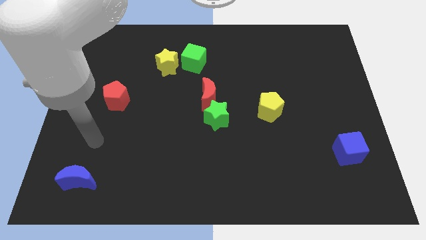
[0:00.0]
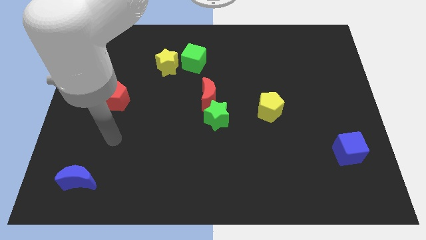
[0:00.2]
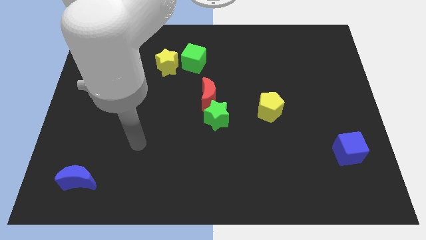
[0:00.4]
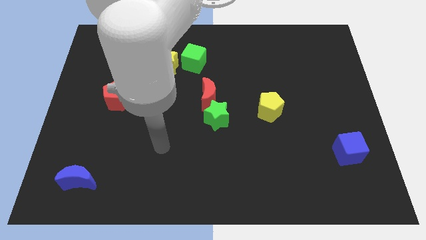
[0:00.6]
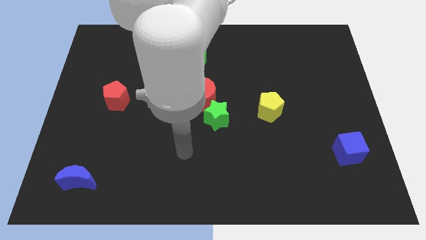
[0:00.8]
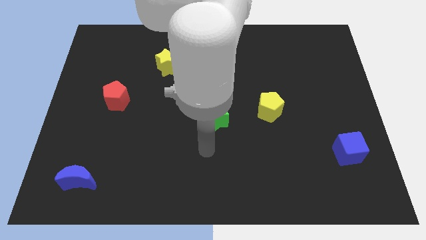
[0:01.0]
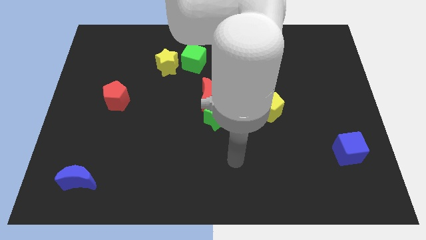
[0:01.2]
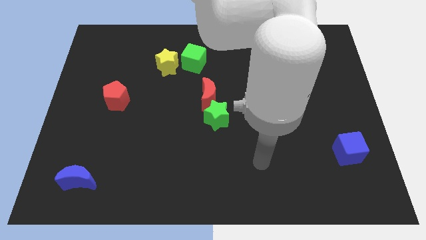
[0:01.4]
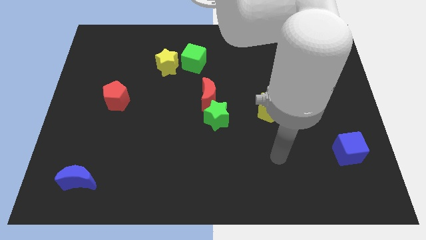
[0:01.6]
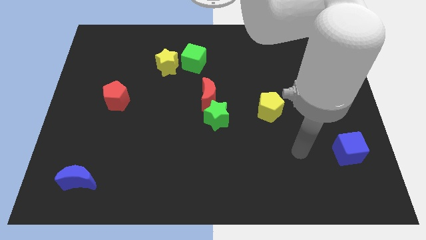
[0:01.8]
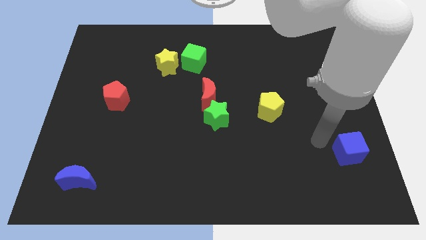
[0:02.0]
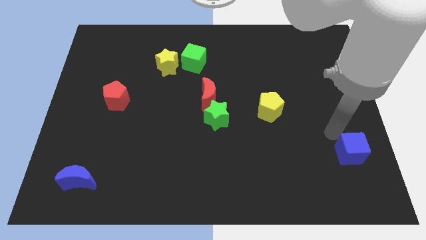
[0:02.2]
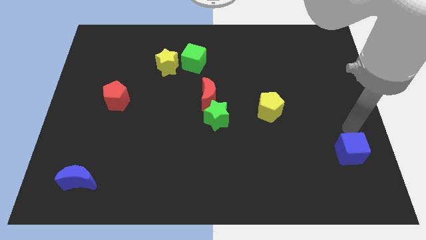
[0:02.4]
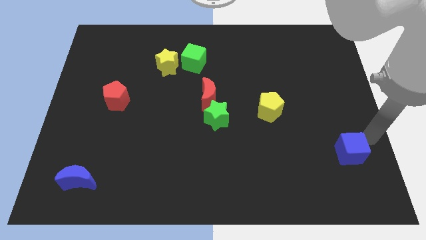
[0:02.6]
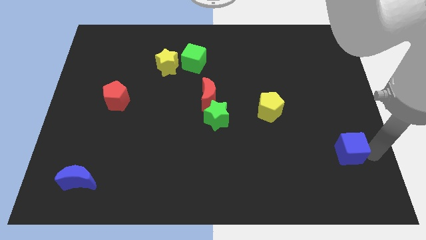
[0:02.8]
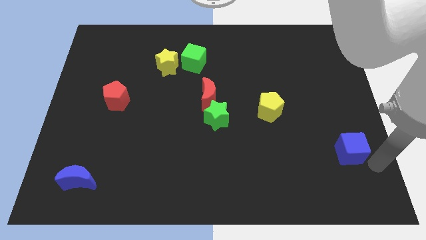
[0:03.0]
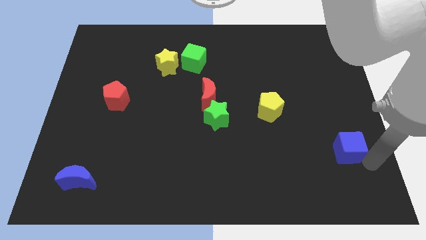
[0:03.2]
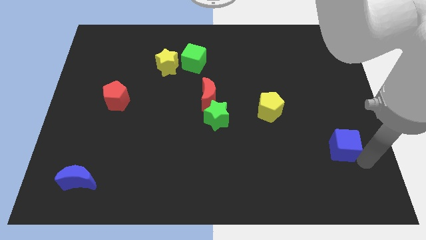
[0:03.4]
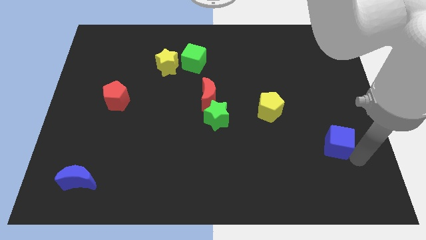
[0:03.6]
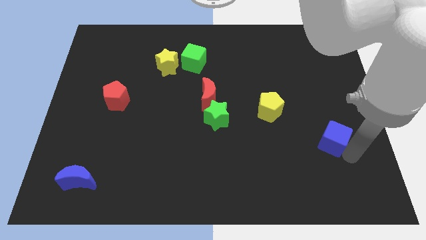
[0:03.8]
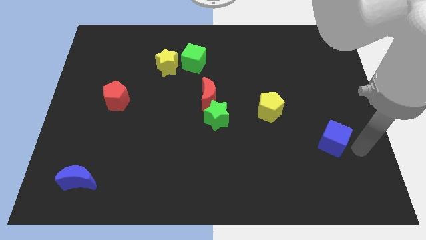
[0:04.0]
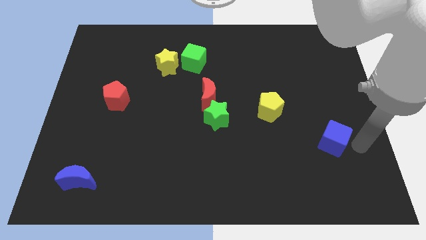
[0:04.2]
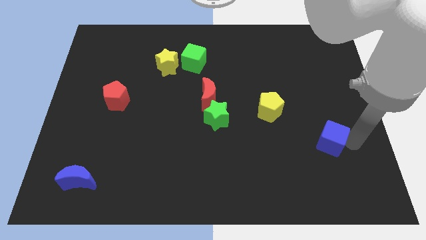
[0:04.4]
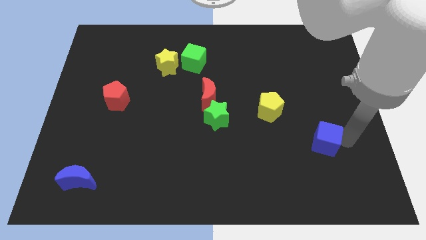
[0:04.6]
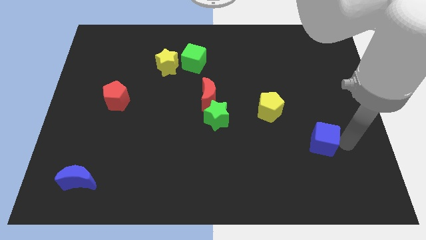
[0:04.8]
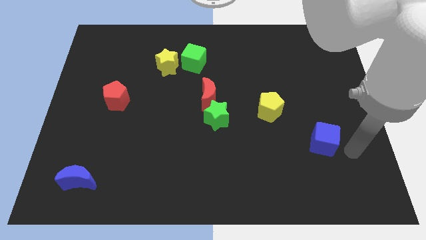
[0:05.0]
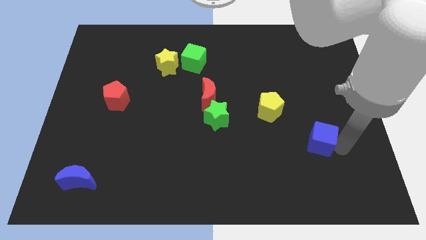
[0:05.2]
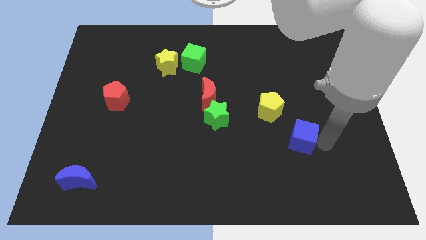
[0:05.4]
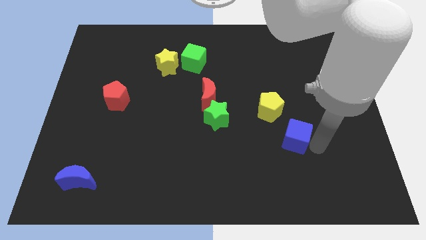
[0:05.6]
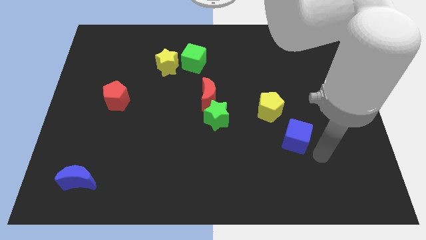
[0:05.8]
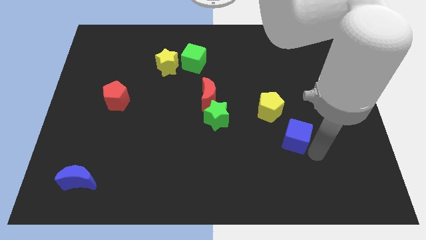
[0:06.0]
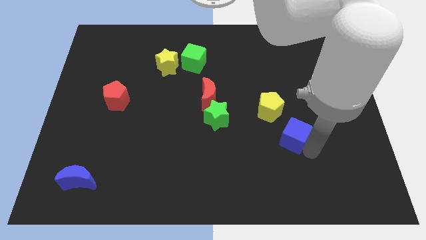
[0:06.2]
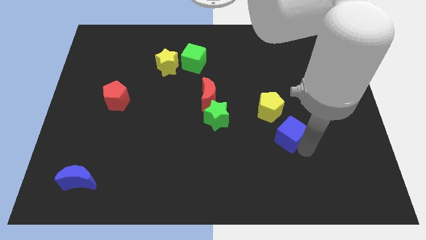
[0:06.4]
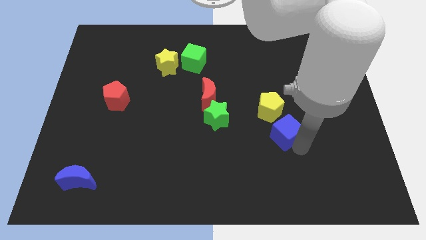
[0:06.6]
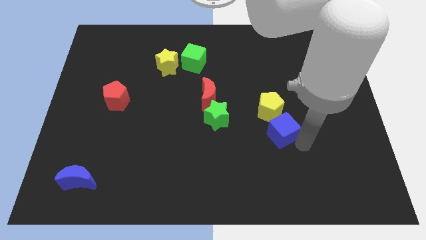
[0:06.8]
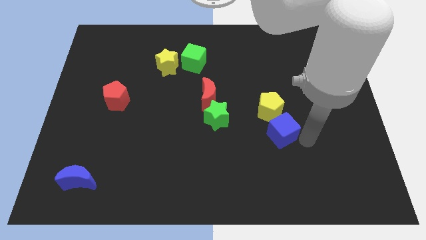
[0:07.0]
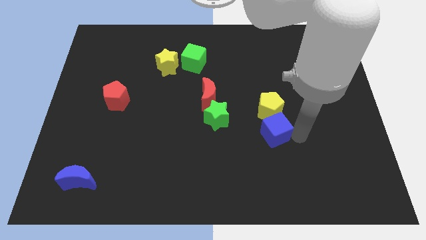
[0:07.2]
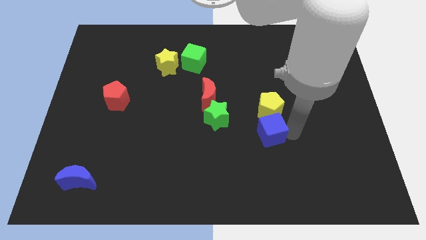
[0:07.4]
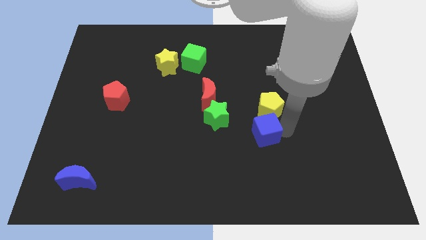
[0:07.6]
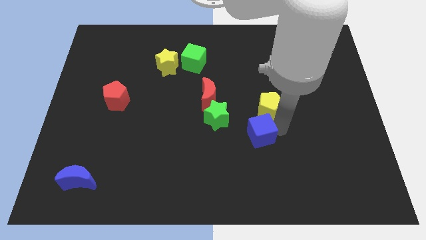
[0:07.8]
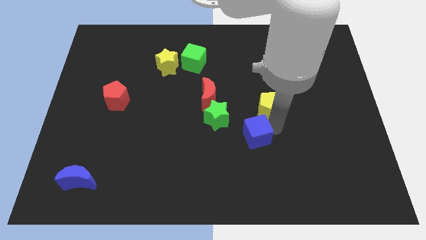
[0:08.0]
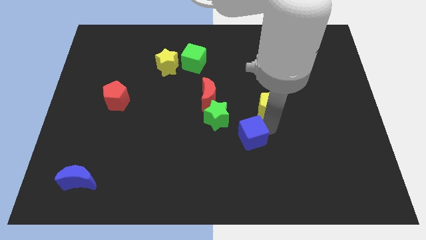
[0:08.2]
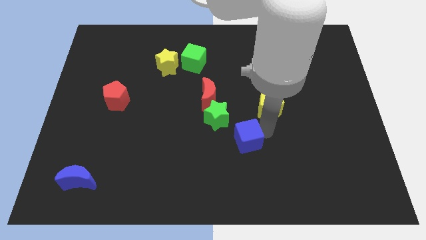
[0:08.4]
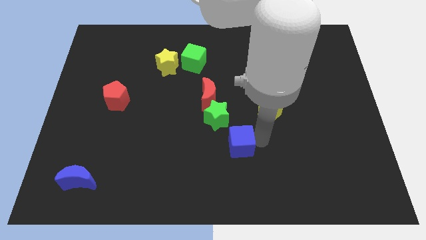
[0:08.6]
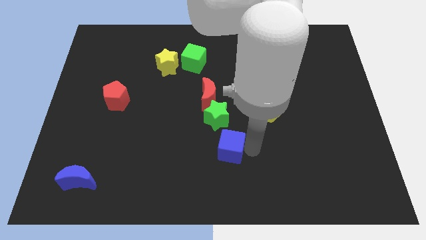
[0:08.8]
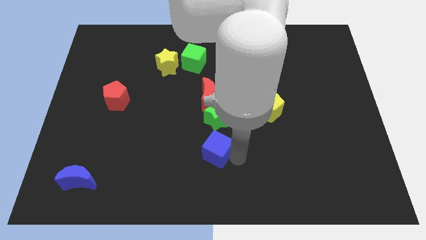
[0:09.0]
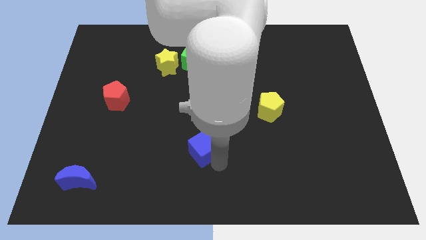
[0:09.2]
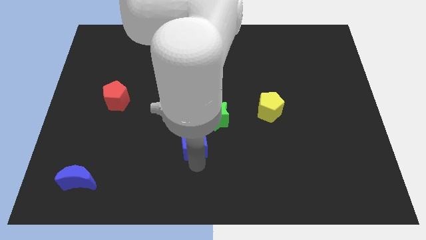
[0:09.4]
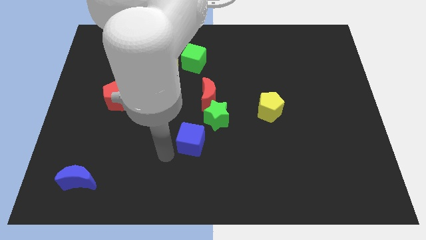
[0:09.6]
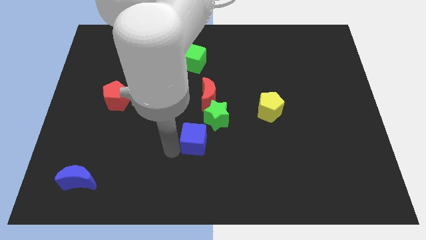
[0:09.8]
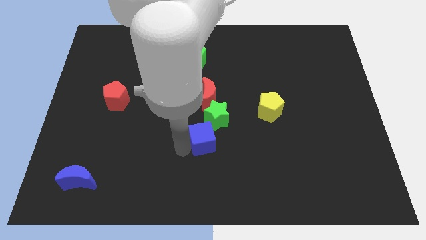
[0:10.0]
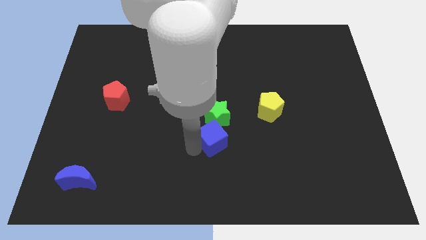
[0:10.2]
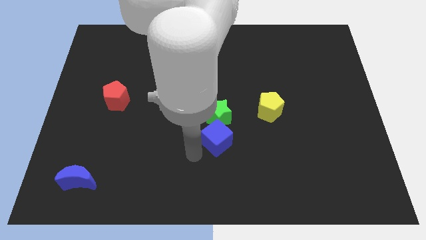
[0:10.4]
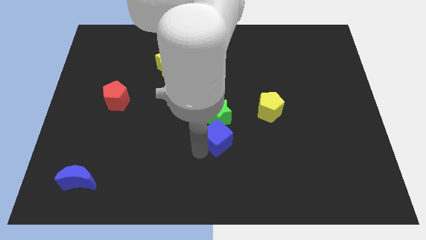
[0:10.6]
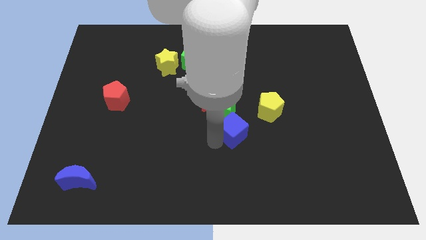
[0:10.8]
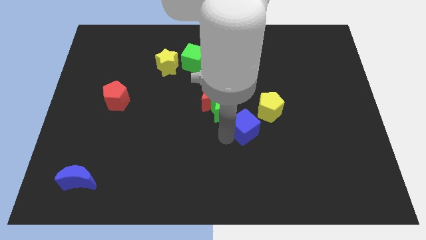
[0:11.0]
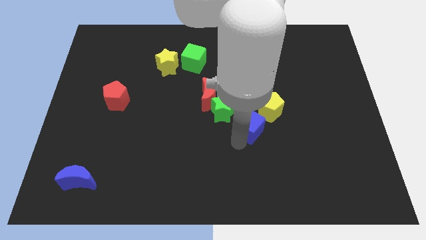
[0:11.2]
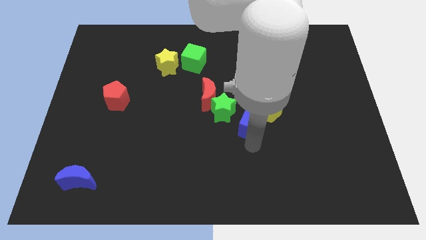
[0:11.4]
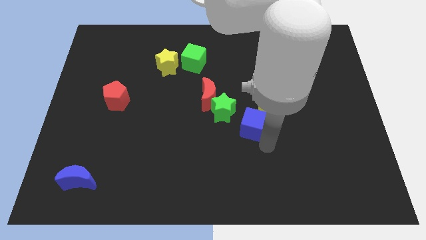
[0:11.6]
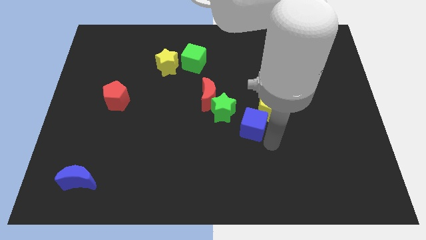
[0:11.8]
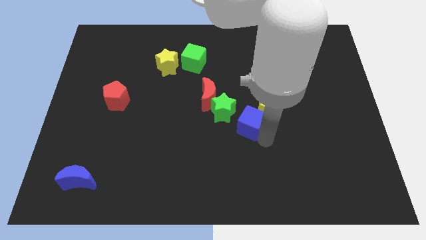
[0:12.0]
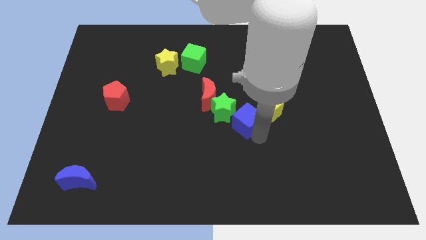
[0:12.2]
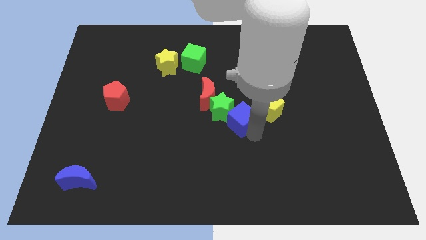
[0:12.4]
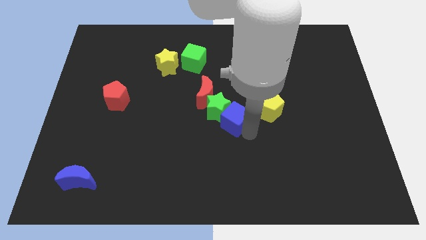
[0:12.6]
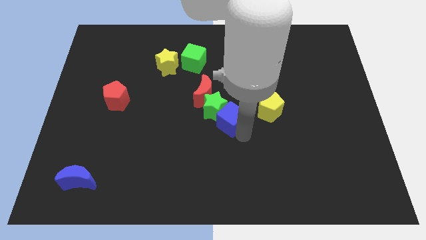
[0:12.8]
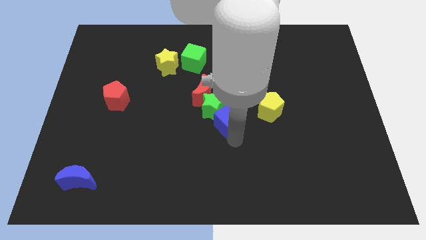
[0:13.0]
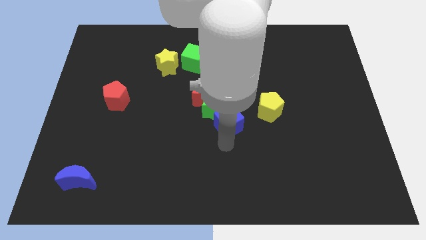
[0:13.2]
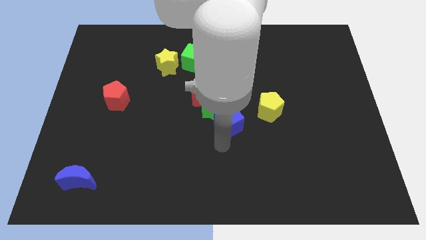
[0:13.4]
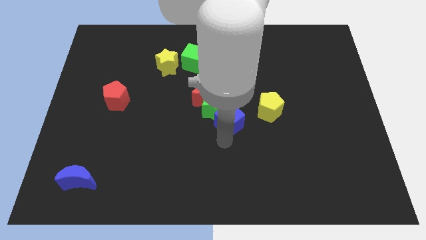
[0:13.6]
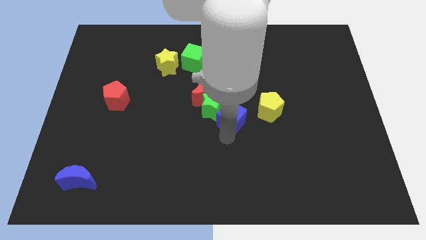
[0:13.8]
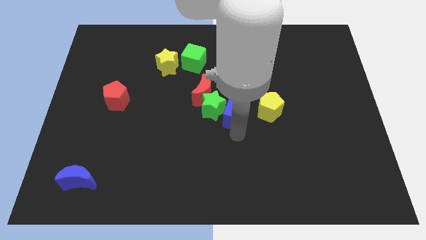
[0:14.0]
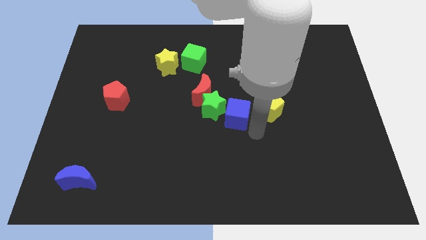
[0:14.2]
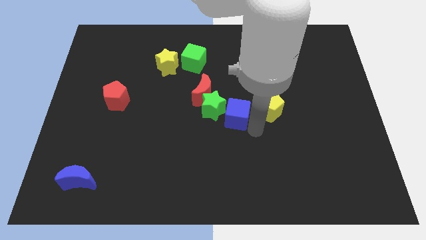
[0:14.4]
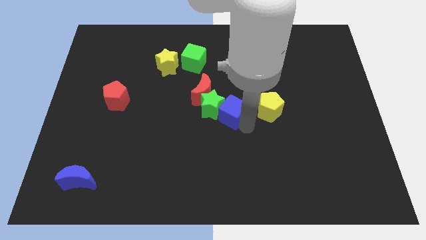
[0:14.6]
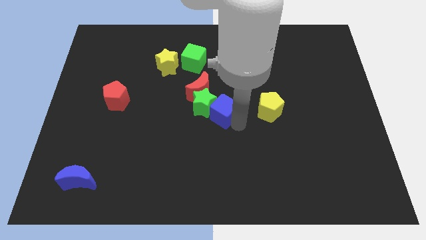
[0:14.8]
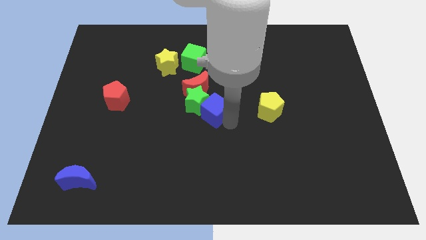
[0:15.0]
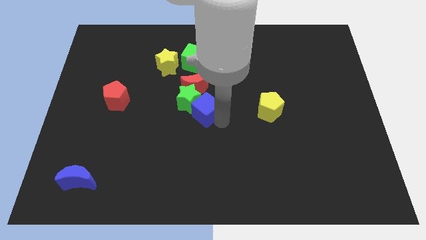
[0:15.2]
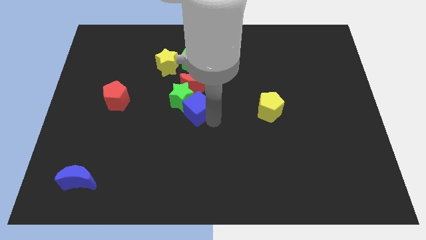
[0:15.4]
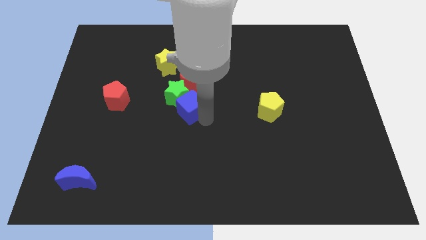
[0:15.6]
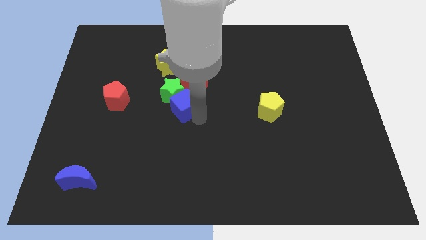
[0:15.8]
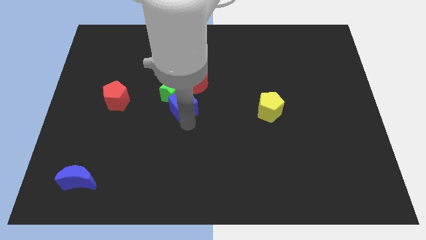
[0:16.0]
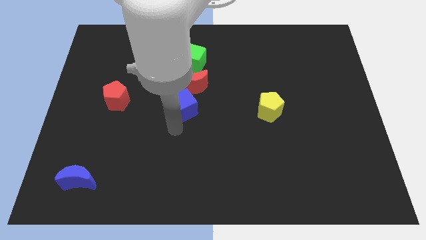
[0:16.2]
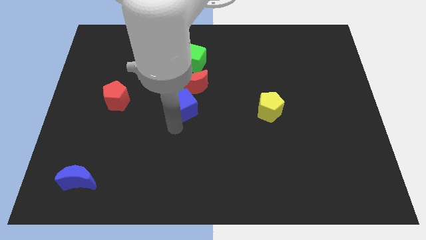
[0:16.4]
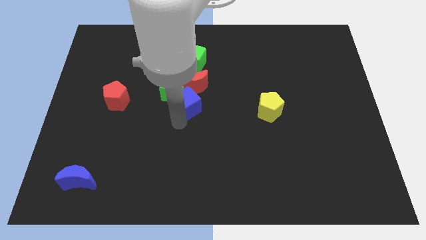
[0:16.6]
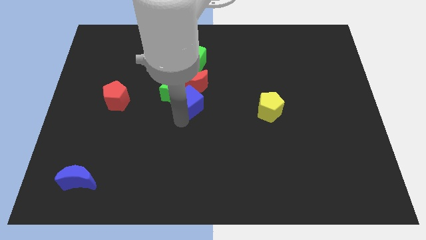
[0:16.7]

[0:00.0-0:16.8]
push the blue cube close to the red moon
